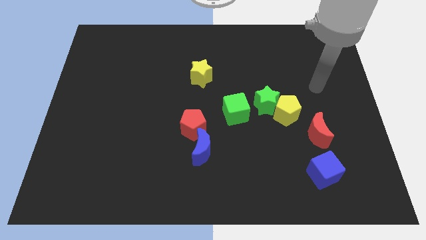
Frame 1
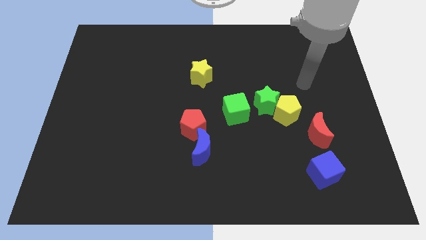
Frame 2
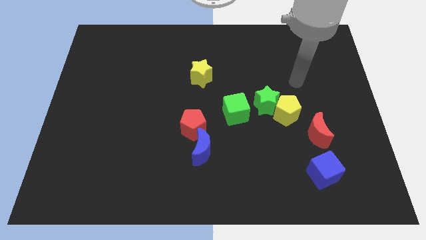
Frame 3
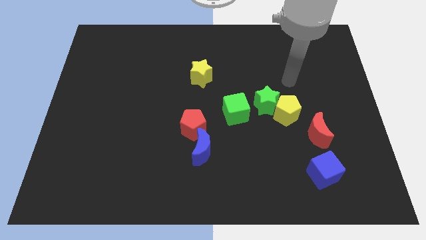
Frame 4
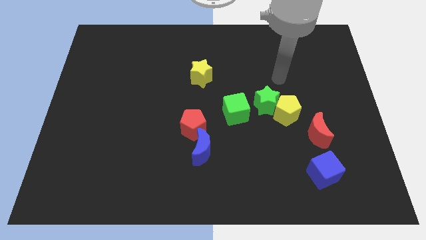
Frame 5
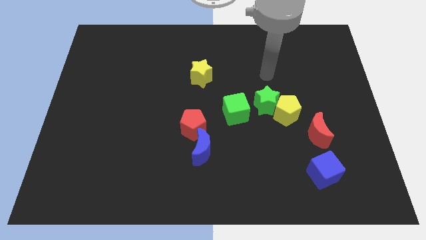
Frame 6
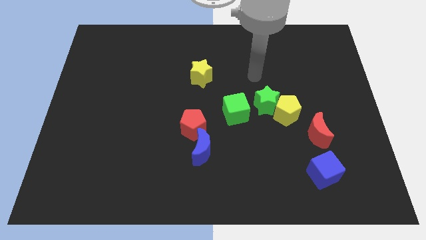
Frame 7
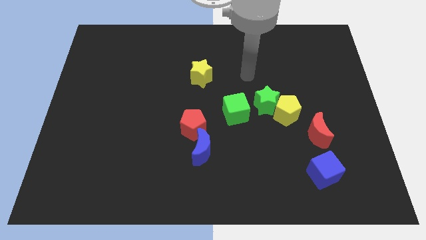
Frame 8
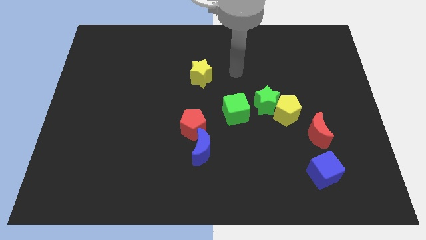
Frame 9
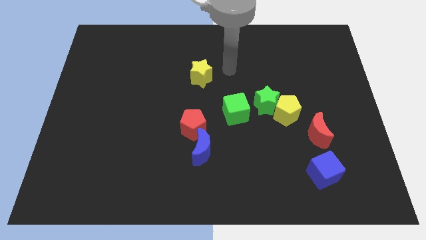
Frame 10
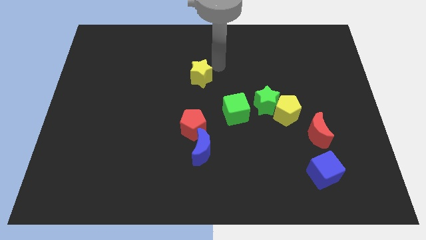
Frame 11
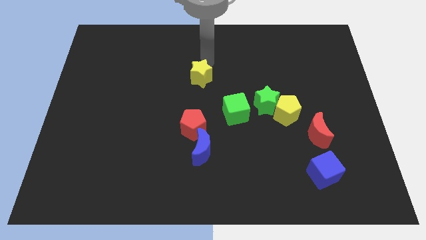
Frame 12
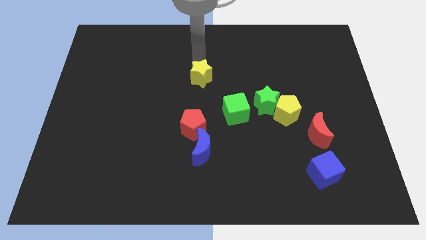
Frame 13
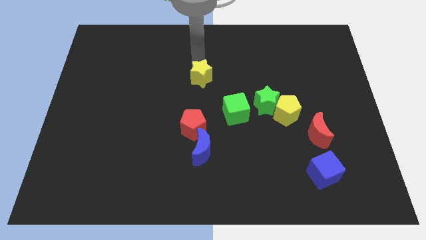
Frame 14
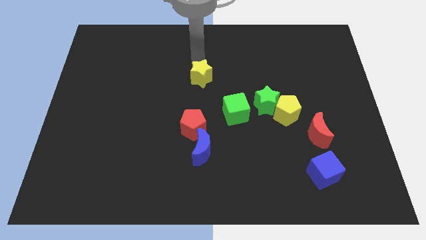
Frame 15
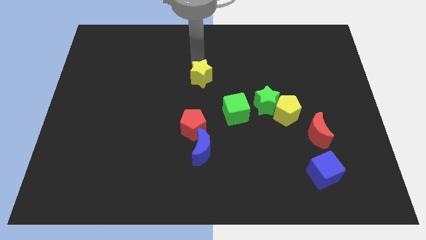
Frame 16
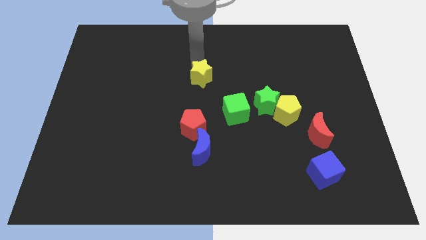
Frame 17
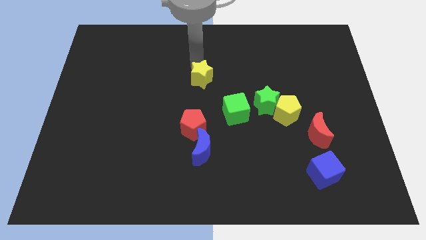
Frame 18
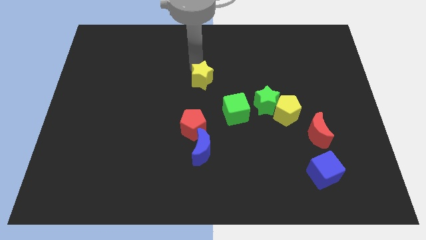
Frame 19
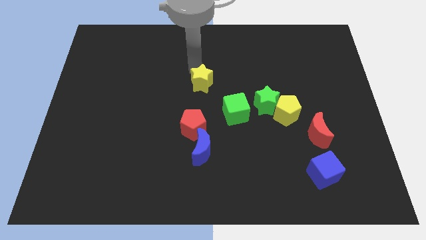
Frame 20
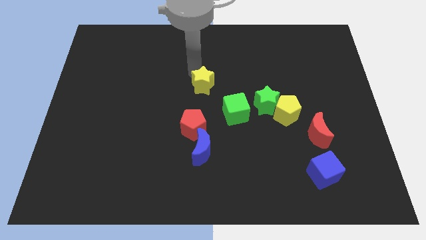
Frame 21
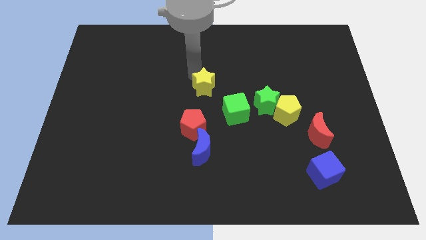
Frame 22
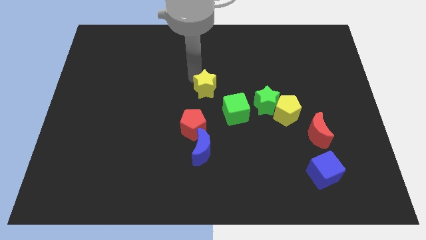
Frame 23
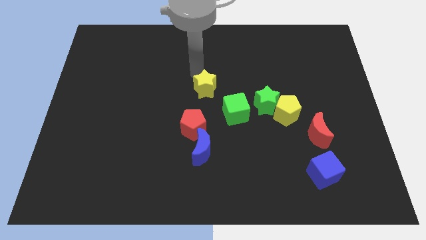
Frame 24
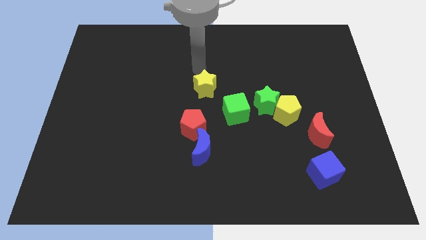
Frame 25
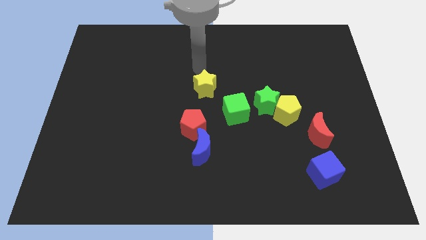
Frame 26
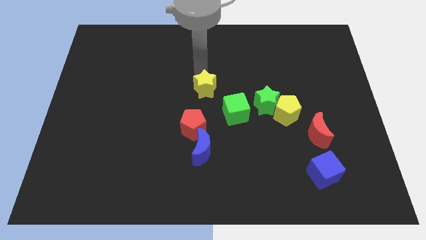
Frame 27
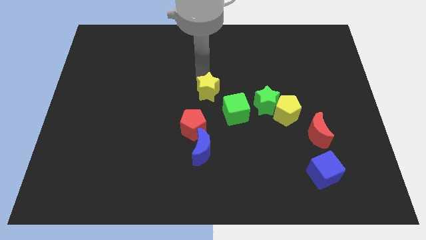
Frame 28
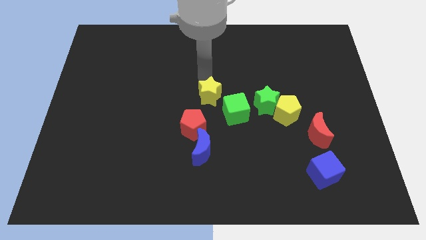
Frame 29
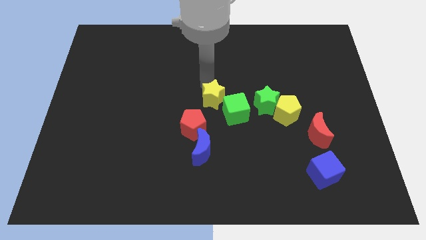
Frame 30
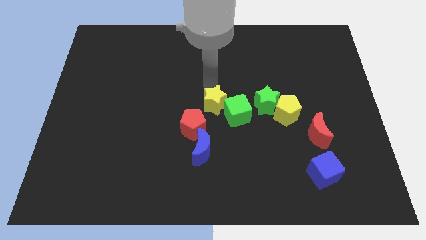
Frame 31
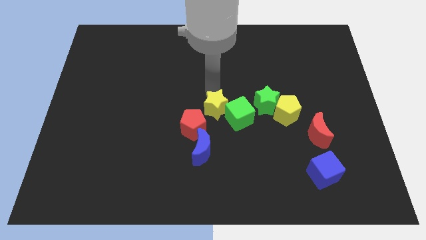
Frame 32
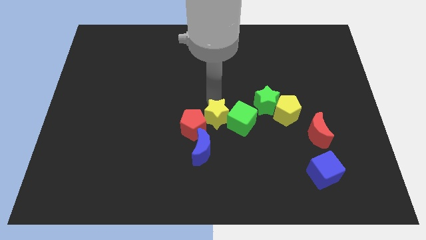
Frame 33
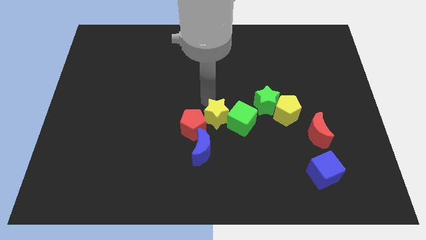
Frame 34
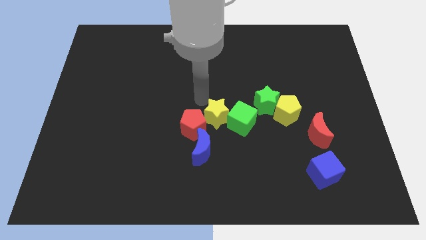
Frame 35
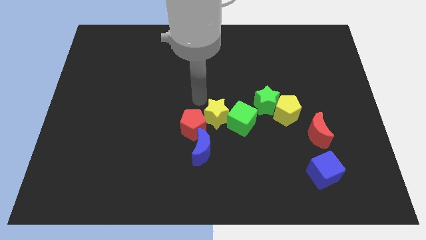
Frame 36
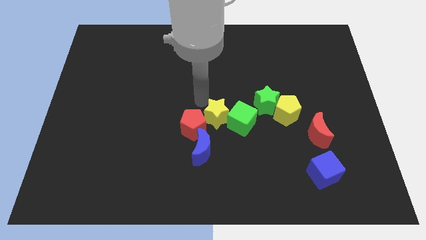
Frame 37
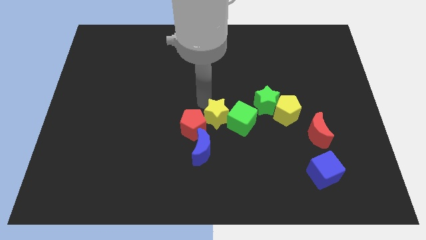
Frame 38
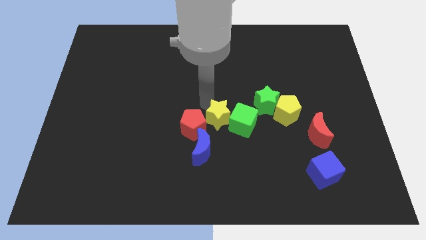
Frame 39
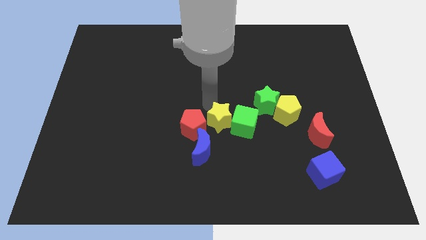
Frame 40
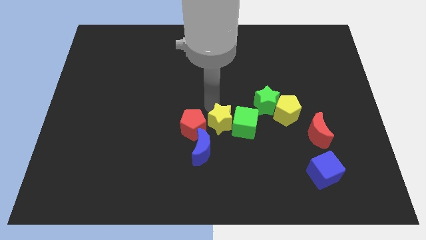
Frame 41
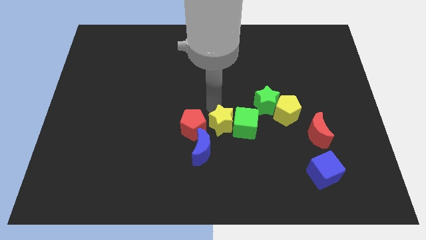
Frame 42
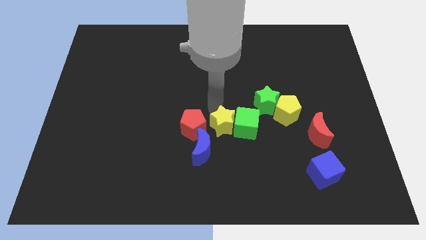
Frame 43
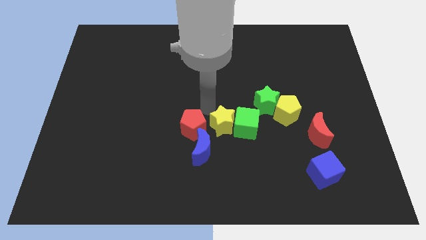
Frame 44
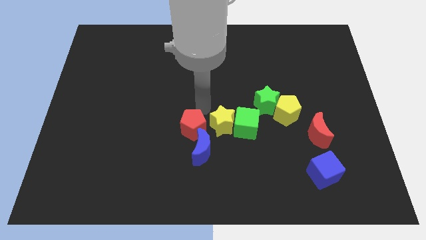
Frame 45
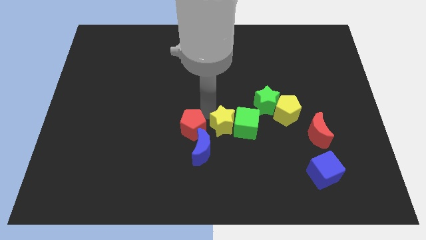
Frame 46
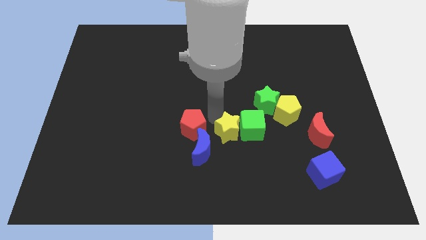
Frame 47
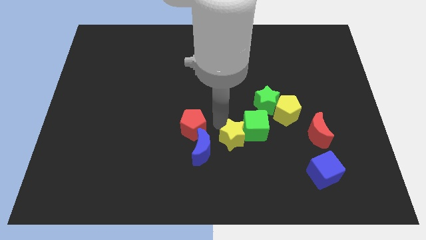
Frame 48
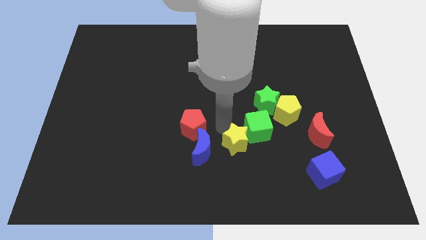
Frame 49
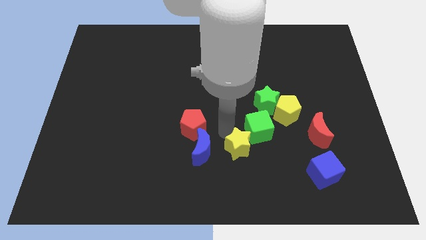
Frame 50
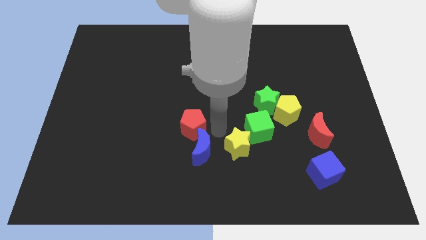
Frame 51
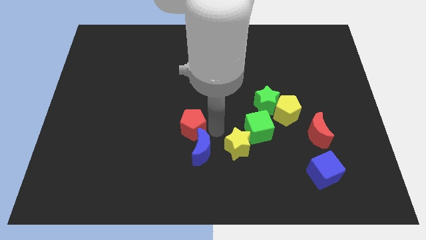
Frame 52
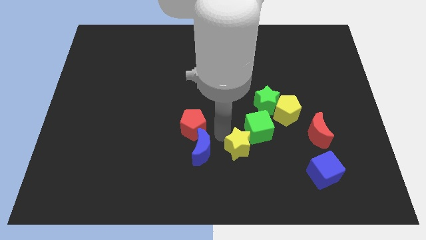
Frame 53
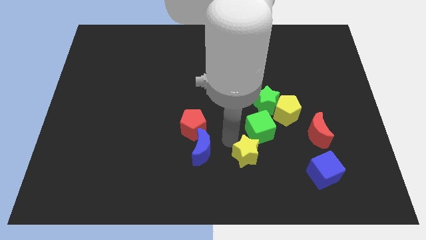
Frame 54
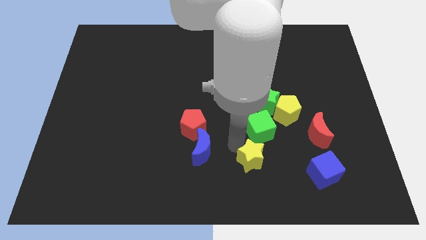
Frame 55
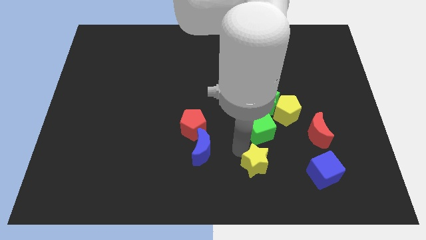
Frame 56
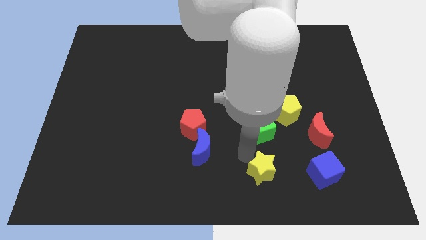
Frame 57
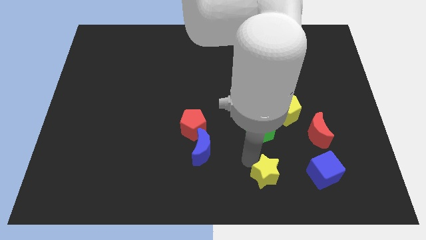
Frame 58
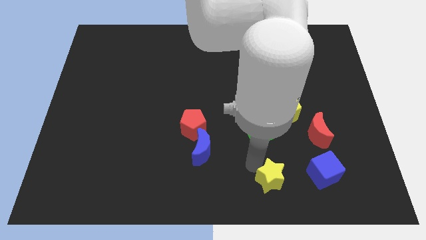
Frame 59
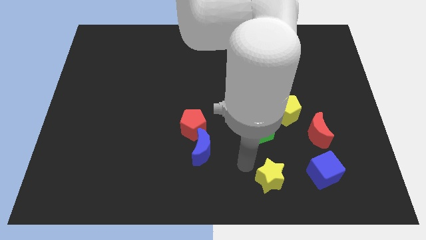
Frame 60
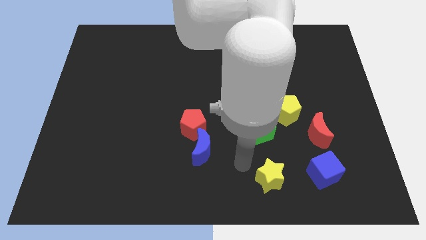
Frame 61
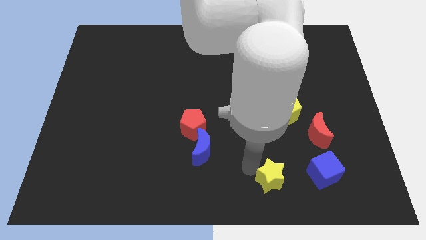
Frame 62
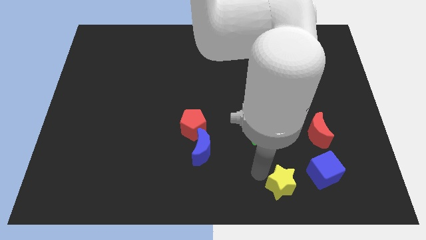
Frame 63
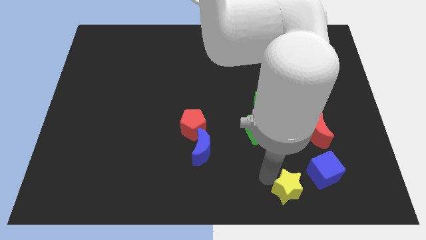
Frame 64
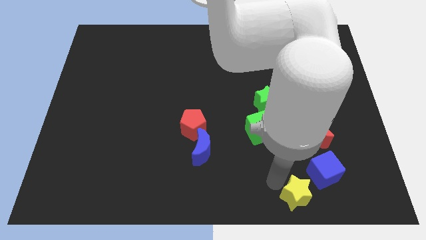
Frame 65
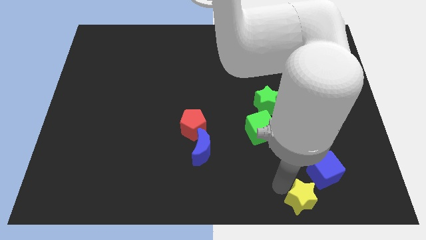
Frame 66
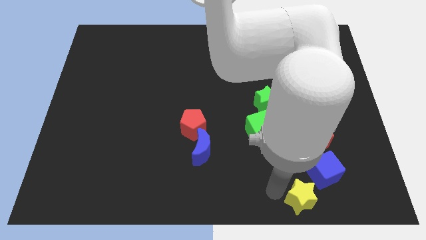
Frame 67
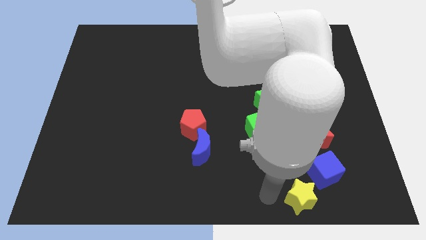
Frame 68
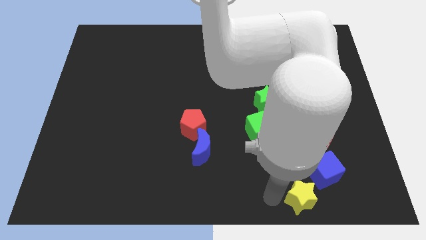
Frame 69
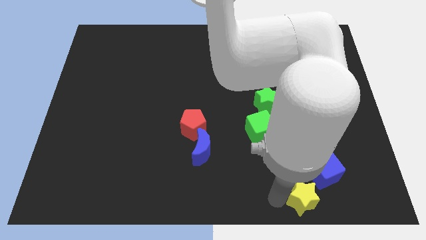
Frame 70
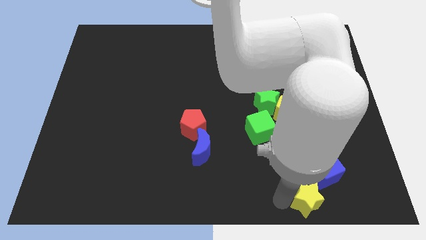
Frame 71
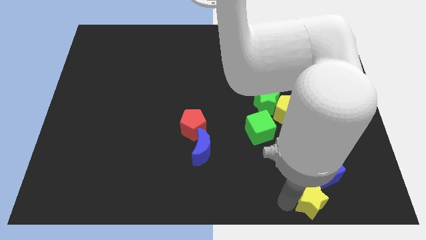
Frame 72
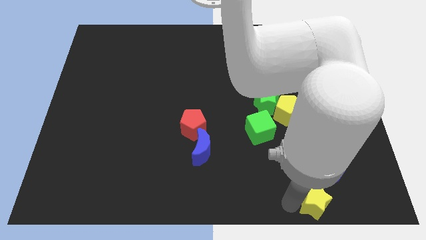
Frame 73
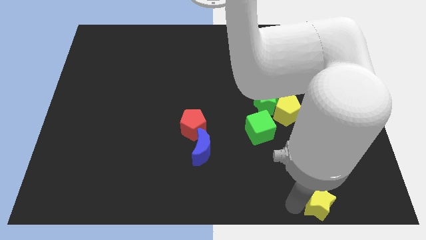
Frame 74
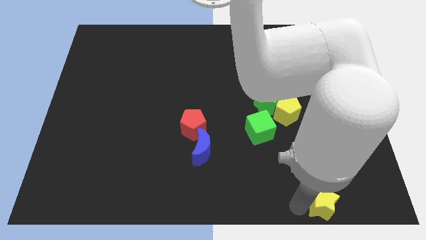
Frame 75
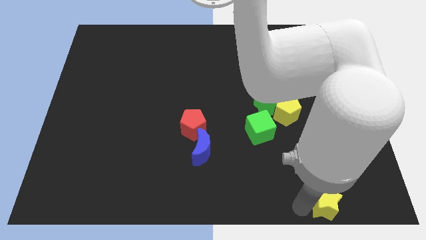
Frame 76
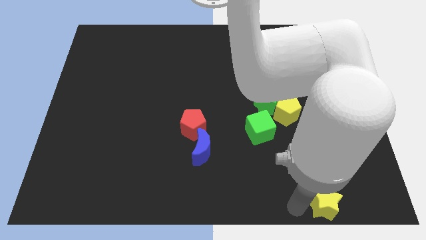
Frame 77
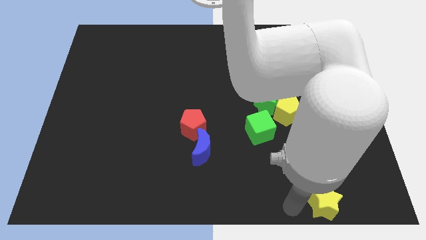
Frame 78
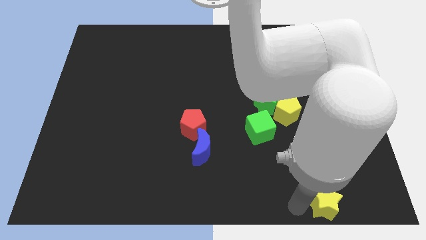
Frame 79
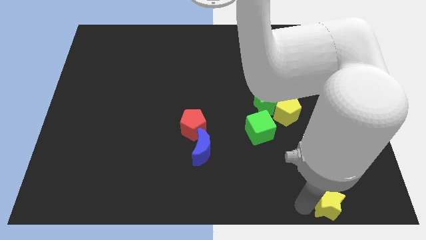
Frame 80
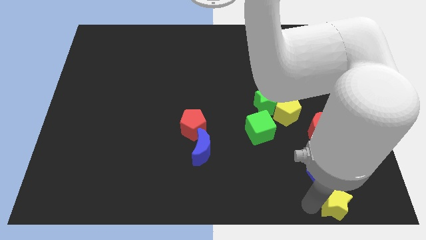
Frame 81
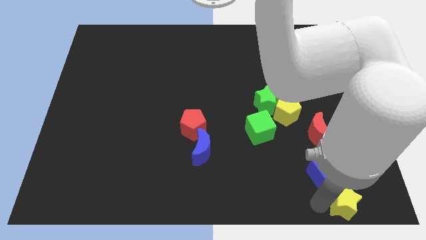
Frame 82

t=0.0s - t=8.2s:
slide the yellow star to the bottom right corner
